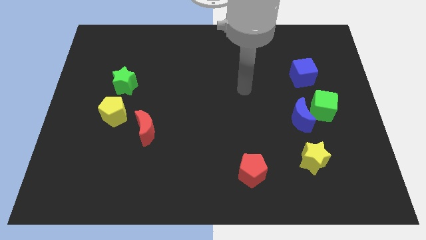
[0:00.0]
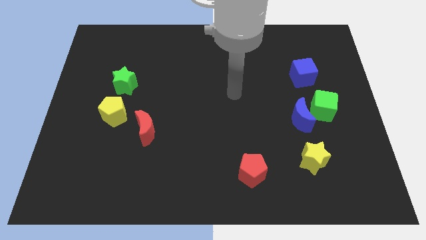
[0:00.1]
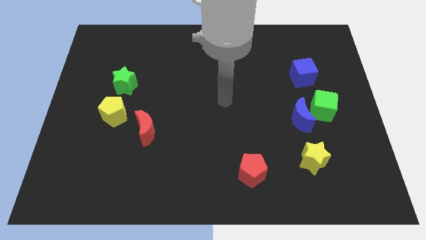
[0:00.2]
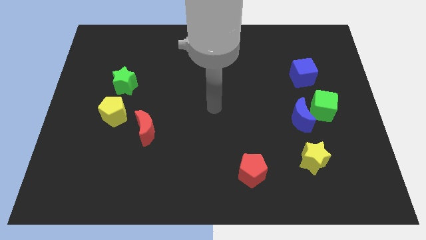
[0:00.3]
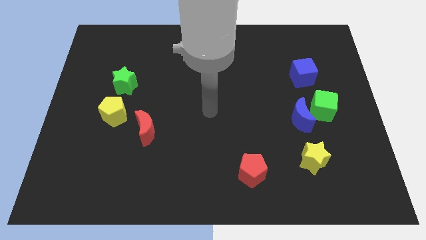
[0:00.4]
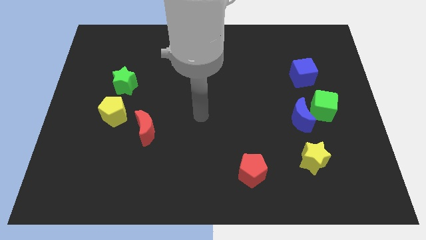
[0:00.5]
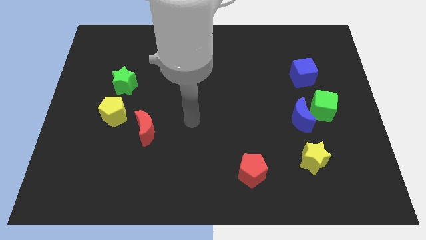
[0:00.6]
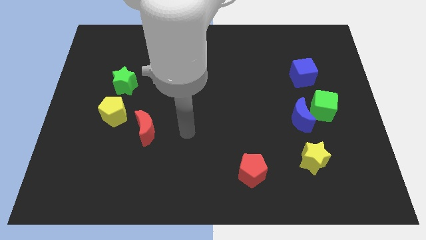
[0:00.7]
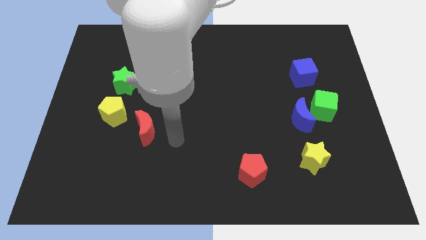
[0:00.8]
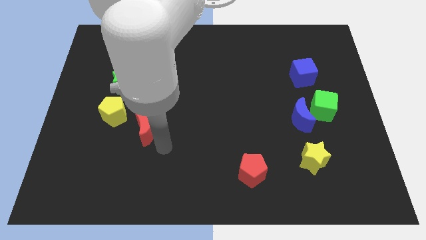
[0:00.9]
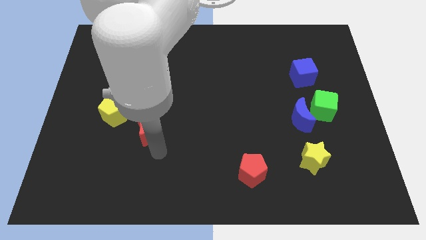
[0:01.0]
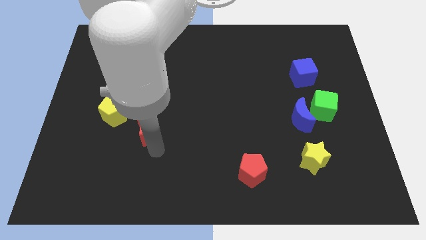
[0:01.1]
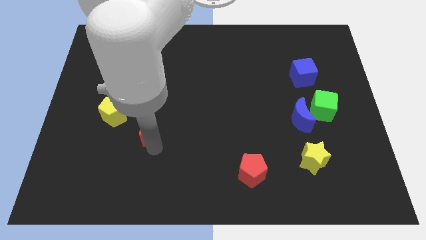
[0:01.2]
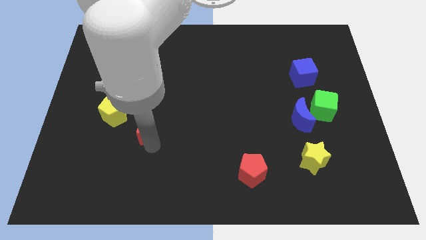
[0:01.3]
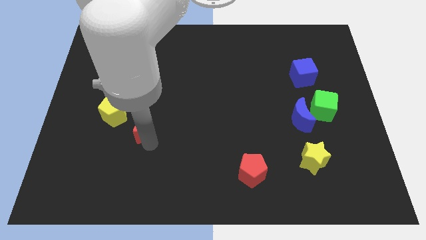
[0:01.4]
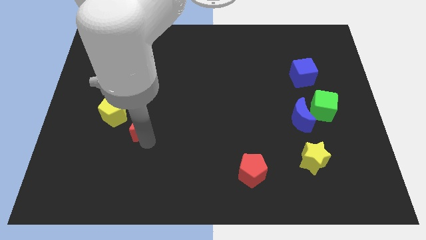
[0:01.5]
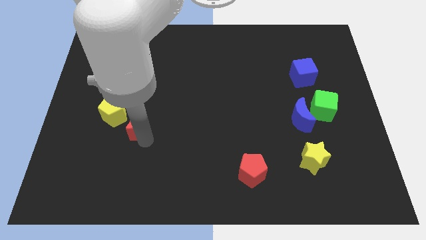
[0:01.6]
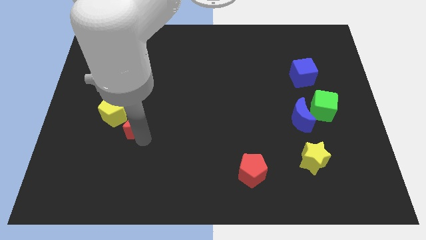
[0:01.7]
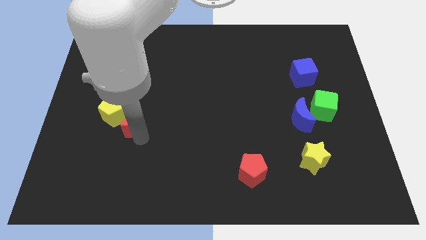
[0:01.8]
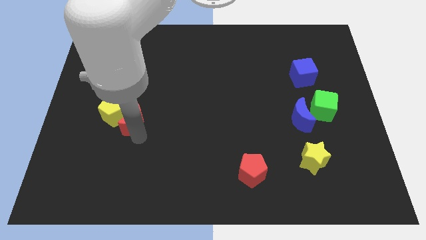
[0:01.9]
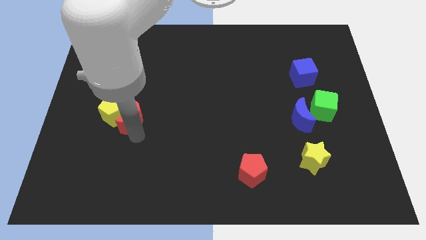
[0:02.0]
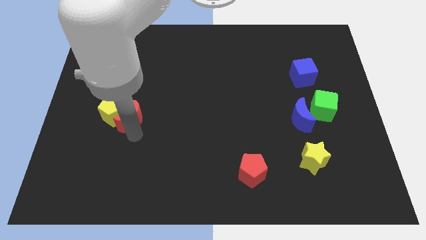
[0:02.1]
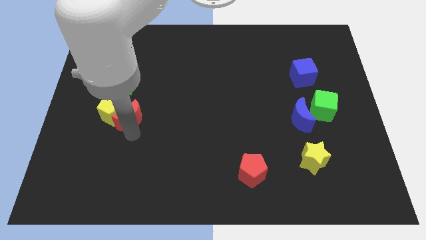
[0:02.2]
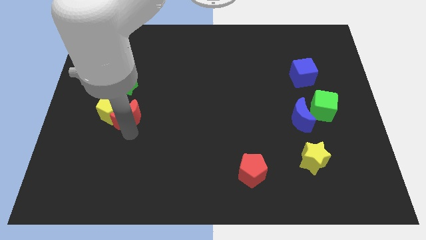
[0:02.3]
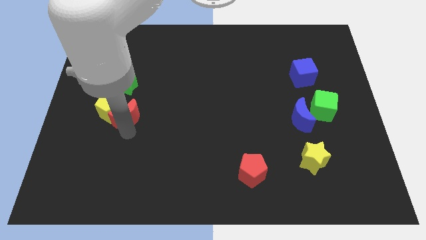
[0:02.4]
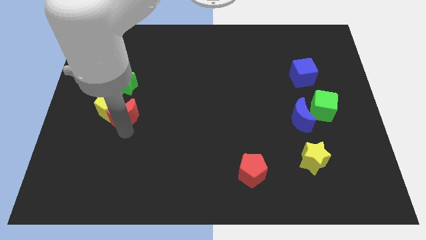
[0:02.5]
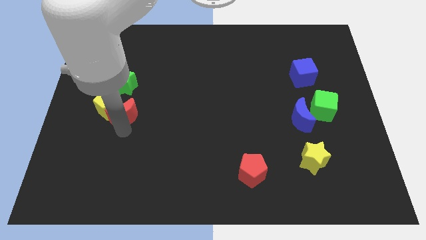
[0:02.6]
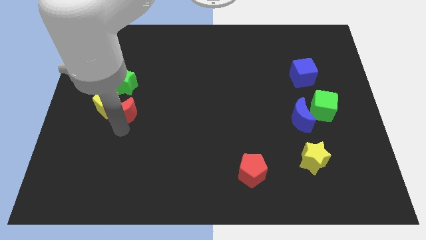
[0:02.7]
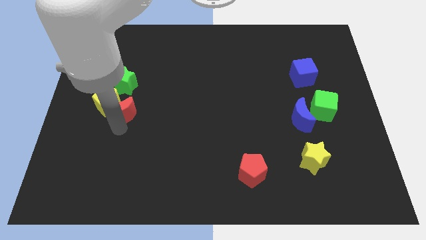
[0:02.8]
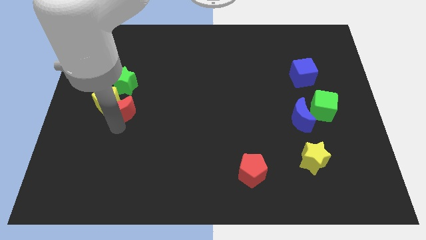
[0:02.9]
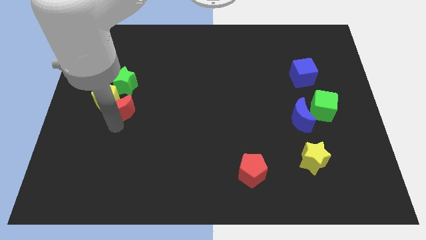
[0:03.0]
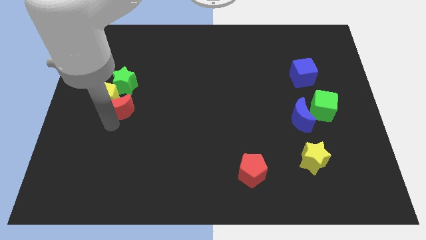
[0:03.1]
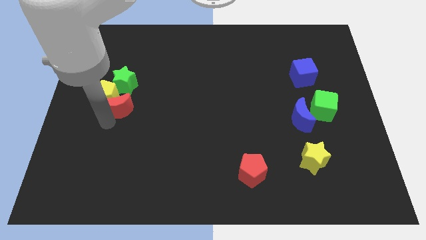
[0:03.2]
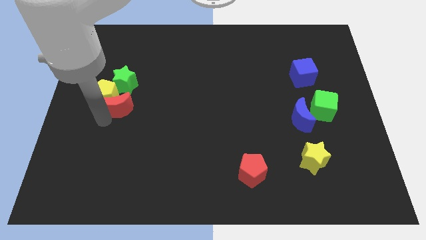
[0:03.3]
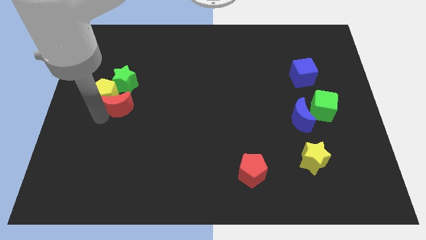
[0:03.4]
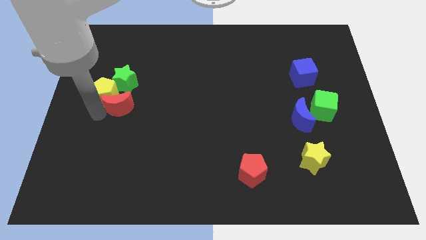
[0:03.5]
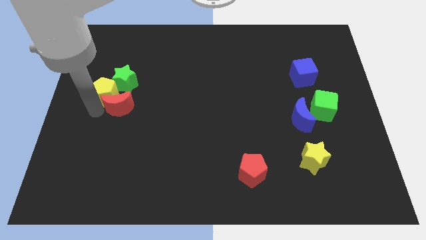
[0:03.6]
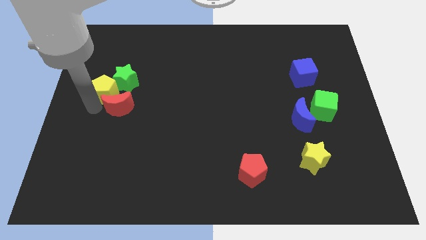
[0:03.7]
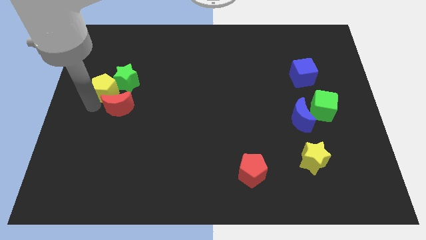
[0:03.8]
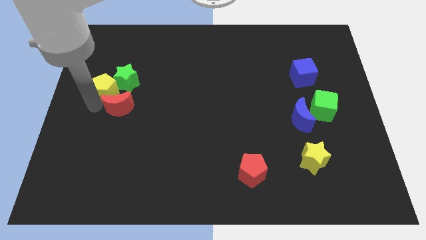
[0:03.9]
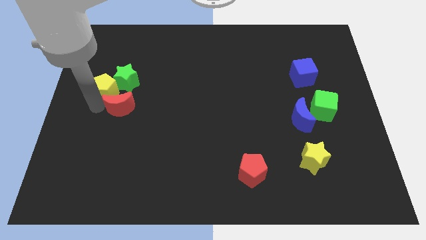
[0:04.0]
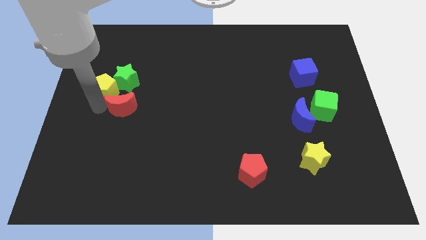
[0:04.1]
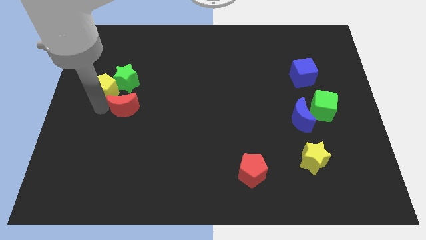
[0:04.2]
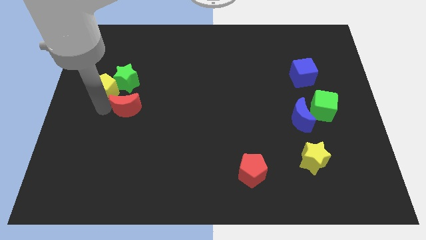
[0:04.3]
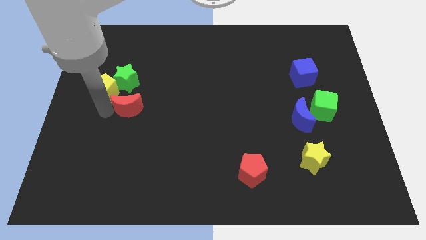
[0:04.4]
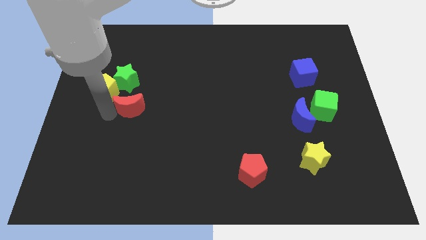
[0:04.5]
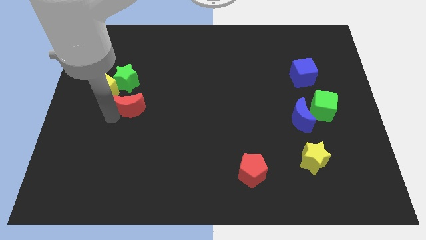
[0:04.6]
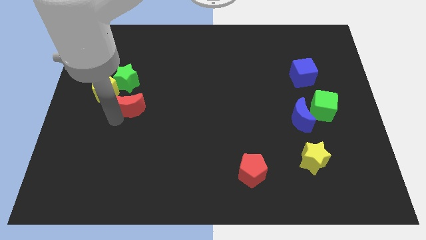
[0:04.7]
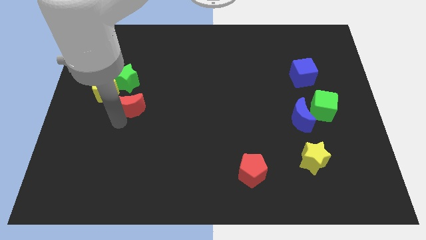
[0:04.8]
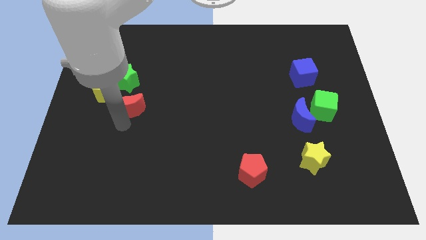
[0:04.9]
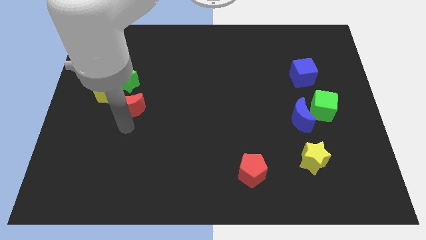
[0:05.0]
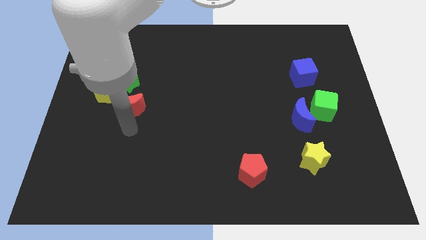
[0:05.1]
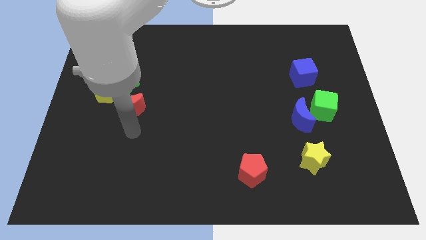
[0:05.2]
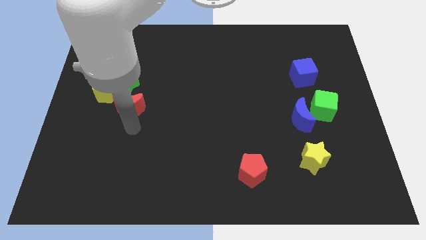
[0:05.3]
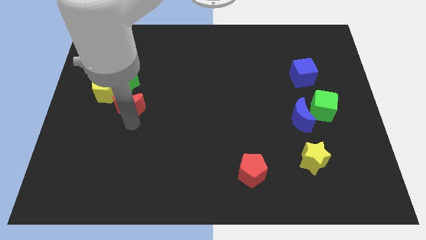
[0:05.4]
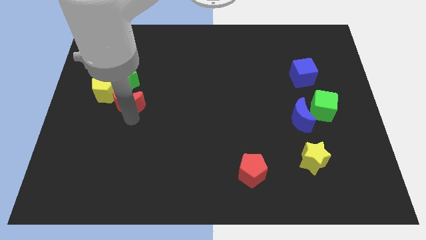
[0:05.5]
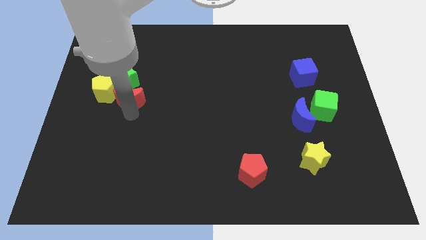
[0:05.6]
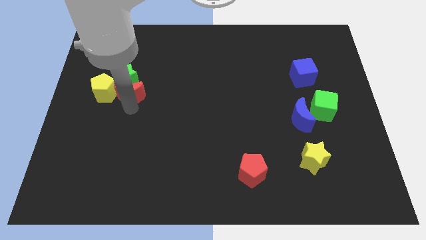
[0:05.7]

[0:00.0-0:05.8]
move the red moon to the green star

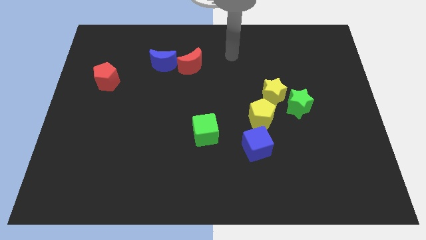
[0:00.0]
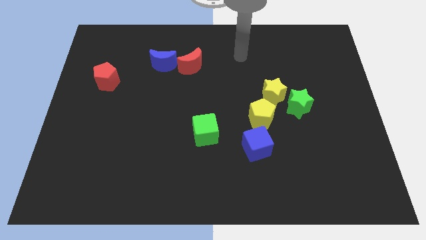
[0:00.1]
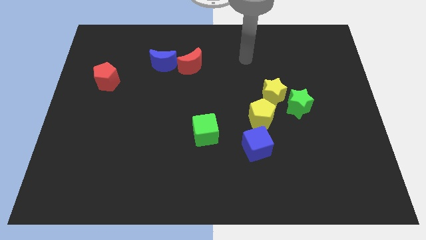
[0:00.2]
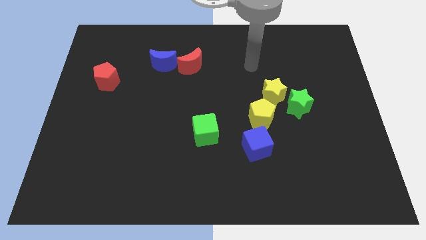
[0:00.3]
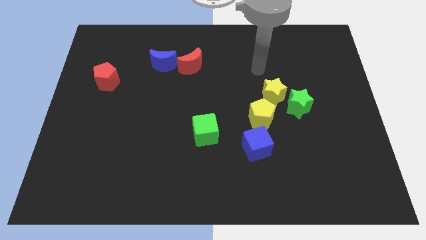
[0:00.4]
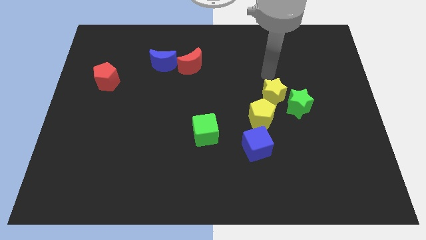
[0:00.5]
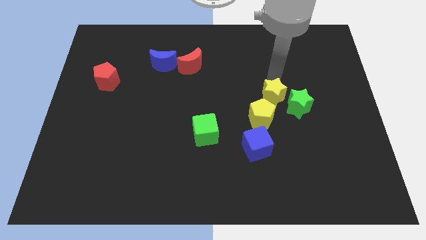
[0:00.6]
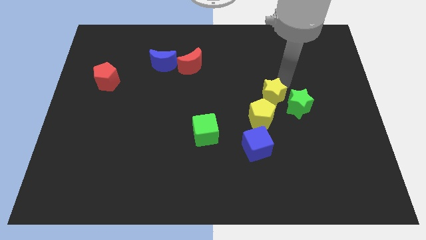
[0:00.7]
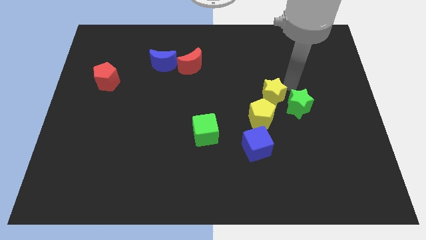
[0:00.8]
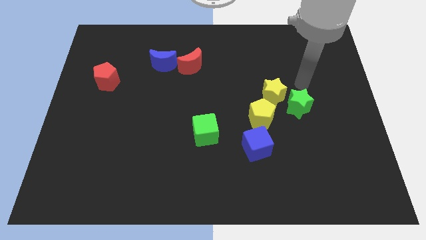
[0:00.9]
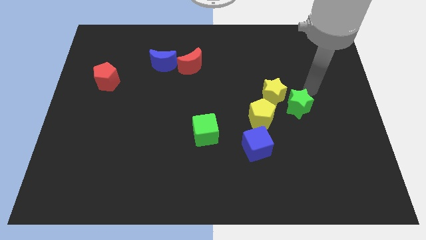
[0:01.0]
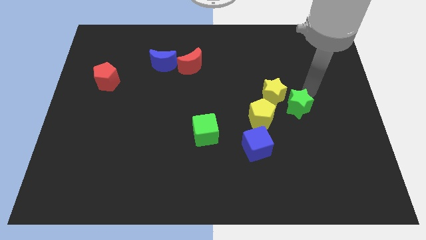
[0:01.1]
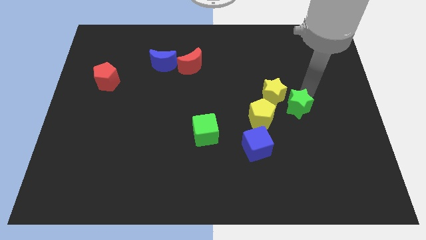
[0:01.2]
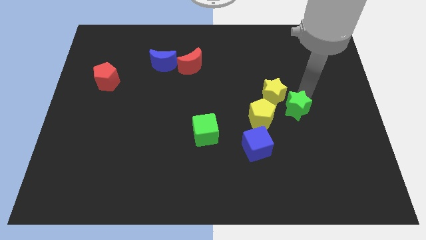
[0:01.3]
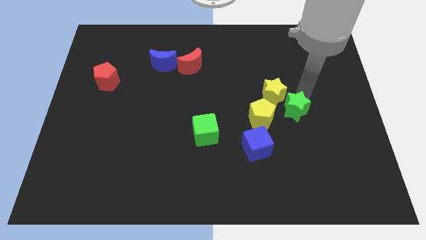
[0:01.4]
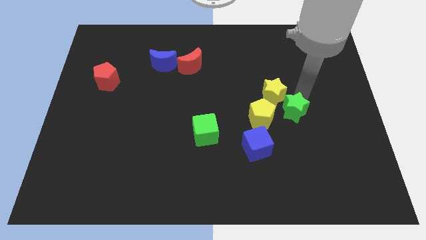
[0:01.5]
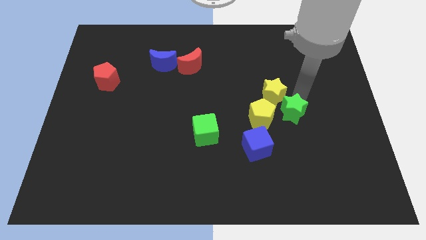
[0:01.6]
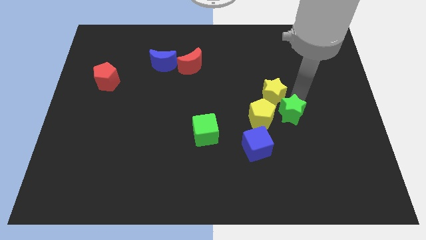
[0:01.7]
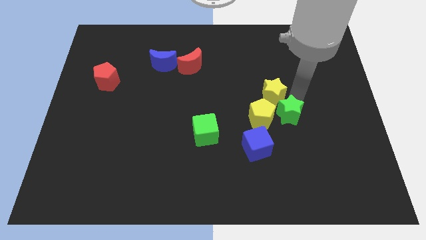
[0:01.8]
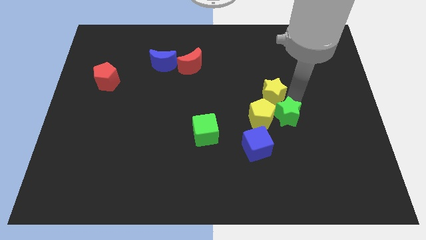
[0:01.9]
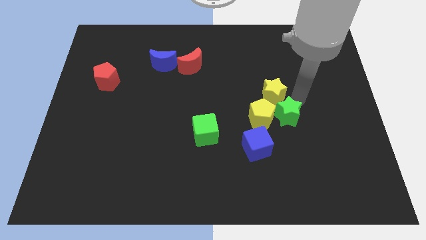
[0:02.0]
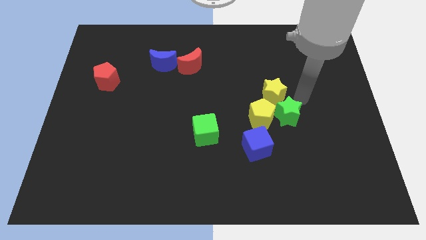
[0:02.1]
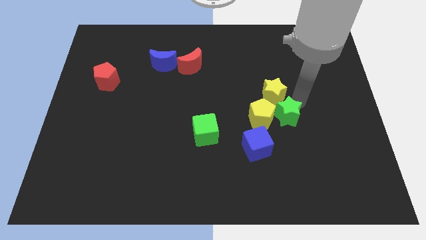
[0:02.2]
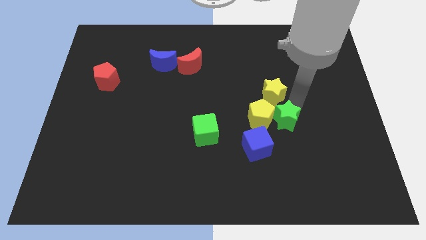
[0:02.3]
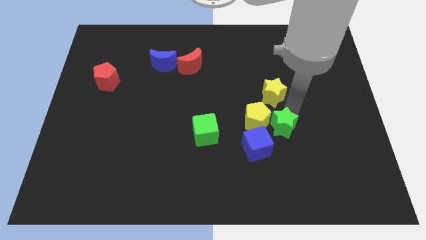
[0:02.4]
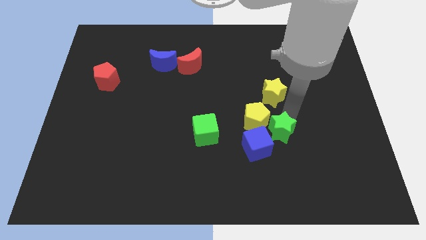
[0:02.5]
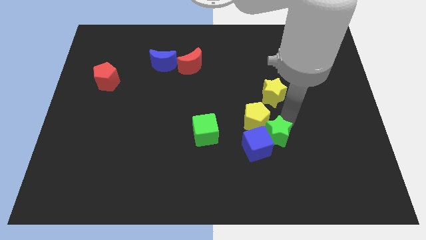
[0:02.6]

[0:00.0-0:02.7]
move the green star next to the blue cube
